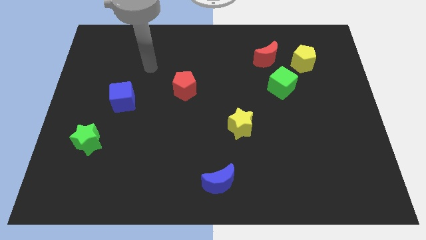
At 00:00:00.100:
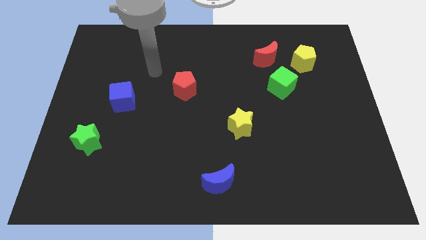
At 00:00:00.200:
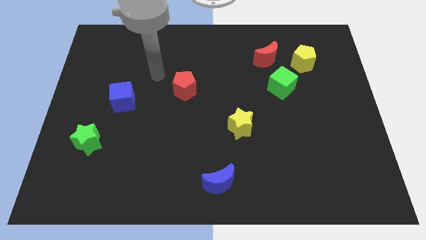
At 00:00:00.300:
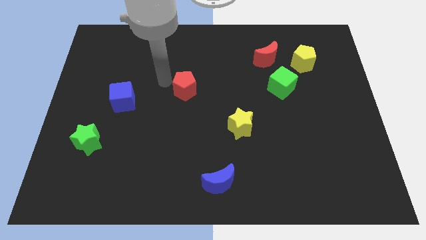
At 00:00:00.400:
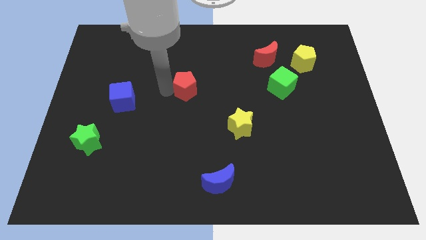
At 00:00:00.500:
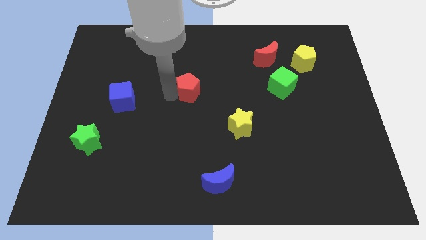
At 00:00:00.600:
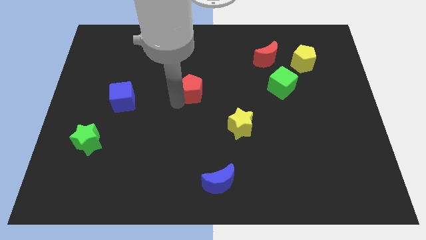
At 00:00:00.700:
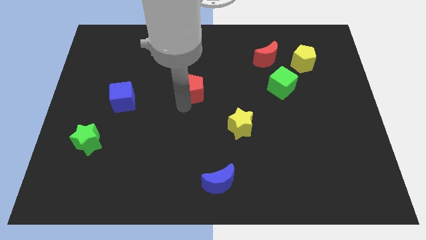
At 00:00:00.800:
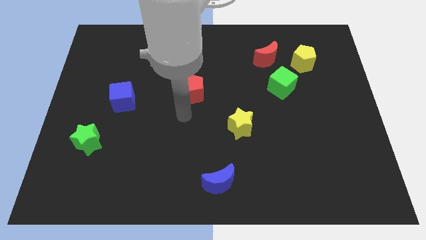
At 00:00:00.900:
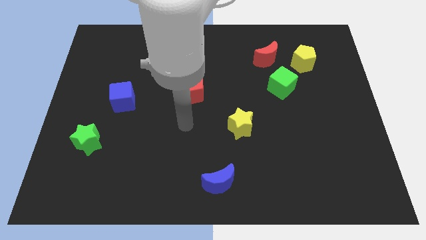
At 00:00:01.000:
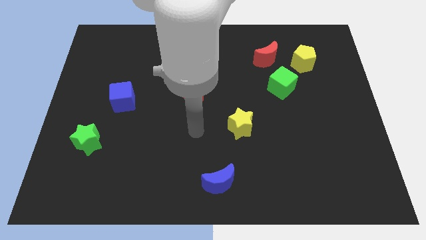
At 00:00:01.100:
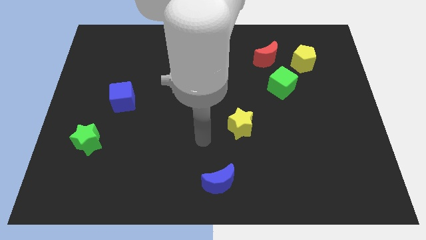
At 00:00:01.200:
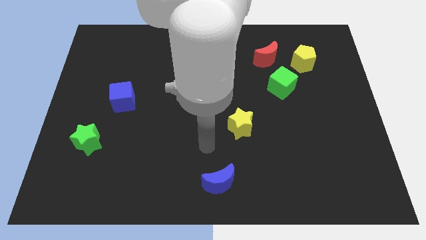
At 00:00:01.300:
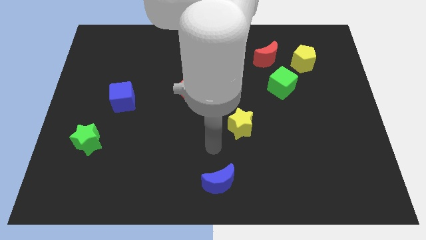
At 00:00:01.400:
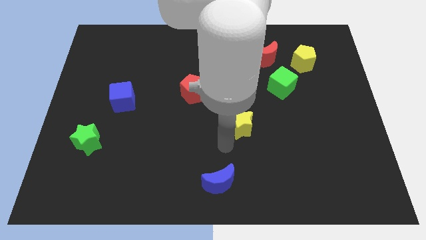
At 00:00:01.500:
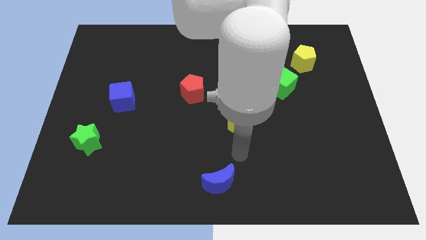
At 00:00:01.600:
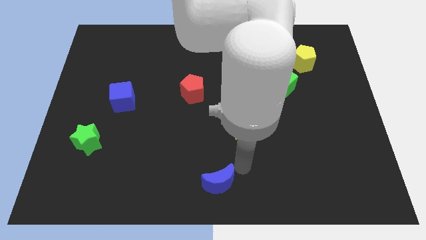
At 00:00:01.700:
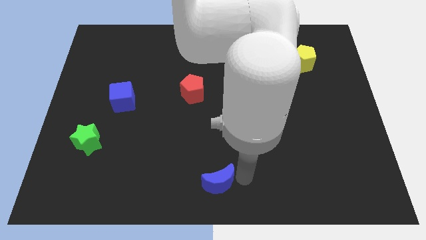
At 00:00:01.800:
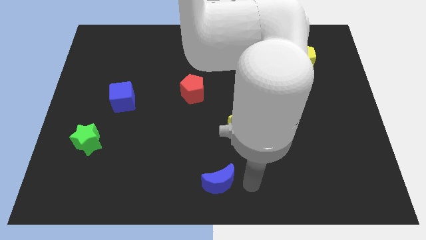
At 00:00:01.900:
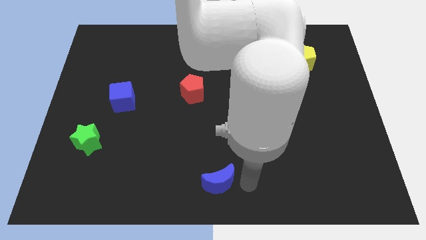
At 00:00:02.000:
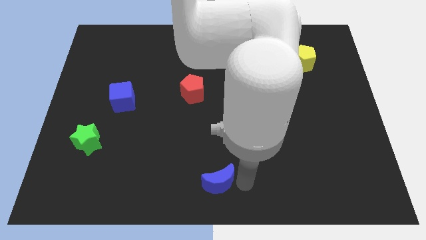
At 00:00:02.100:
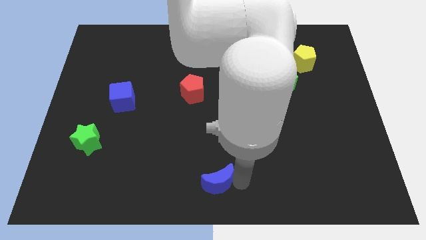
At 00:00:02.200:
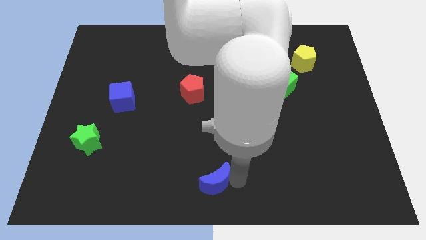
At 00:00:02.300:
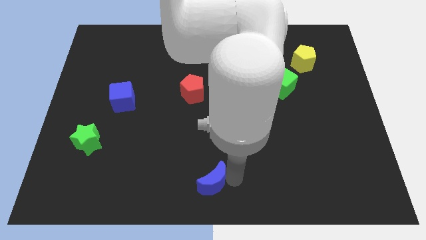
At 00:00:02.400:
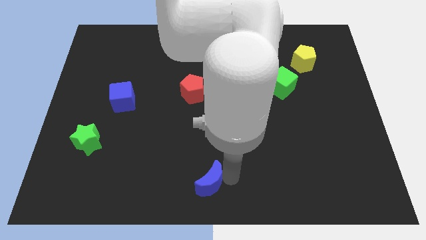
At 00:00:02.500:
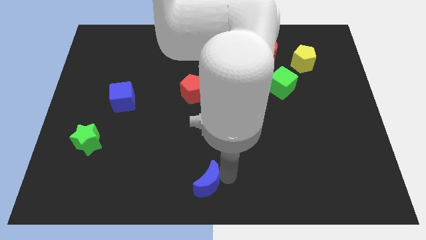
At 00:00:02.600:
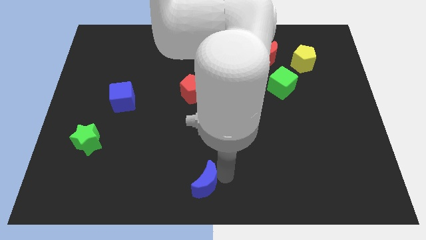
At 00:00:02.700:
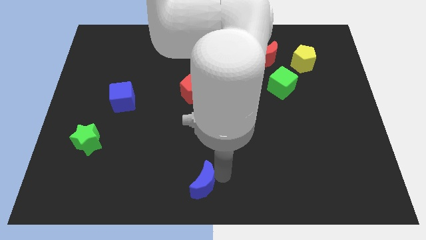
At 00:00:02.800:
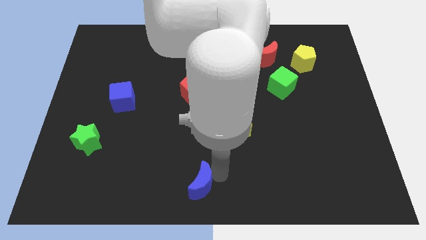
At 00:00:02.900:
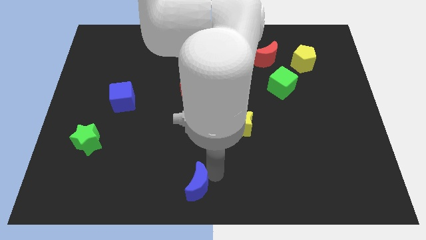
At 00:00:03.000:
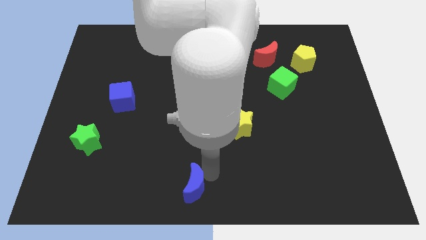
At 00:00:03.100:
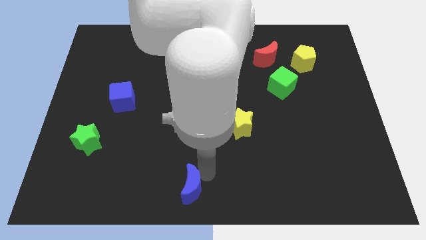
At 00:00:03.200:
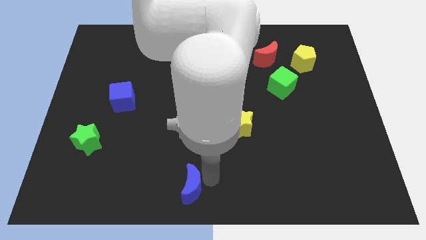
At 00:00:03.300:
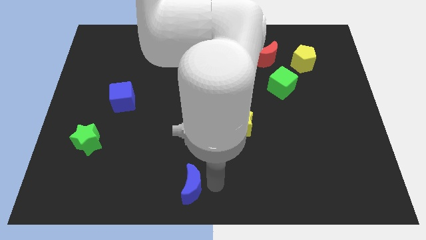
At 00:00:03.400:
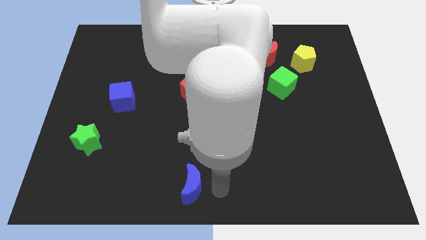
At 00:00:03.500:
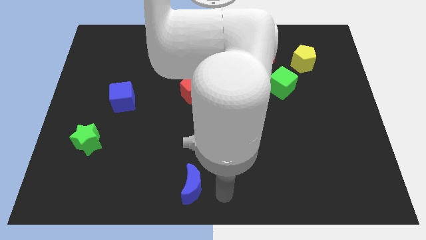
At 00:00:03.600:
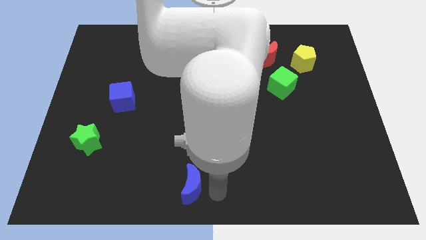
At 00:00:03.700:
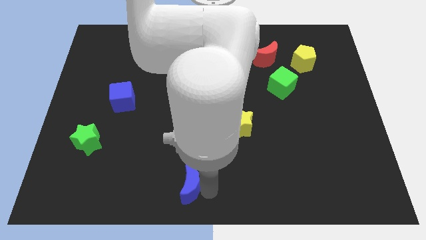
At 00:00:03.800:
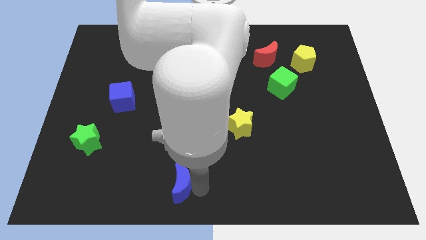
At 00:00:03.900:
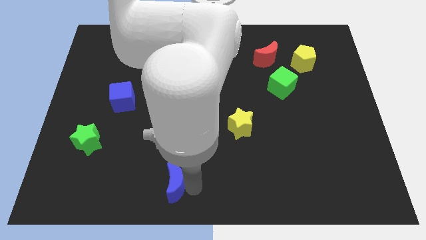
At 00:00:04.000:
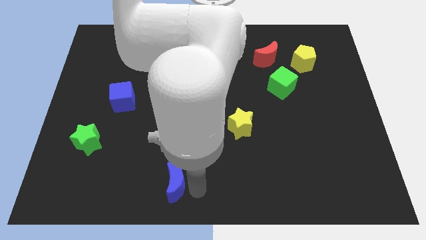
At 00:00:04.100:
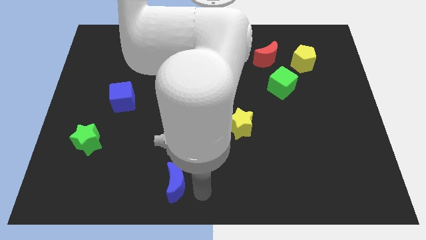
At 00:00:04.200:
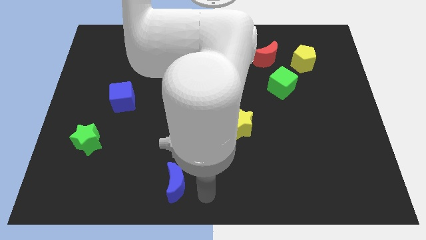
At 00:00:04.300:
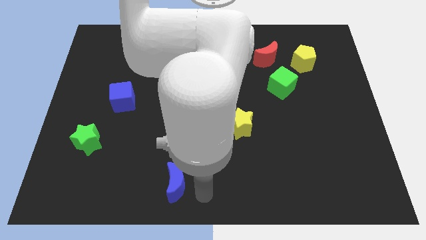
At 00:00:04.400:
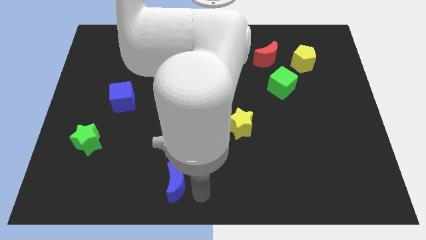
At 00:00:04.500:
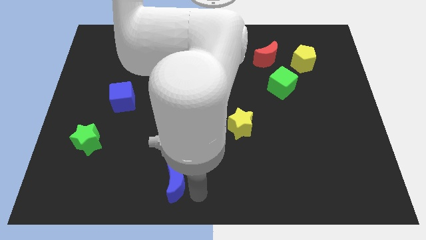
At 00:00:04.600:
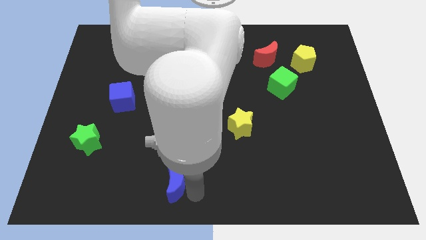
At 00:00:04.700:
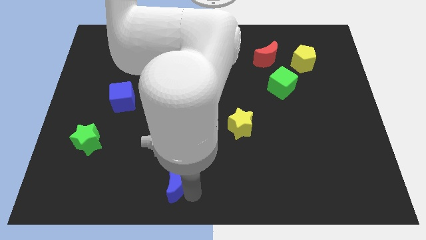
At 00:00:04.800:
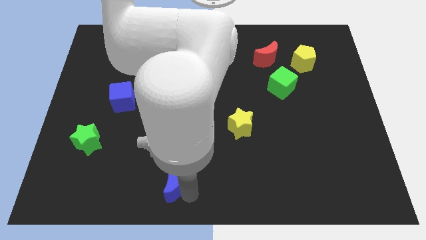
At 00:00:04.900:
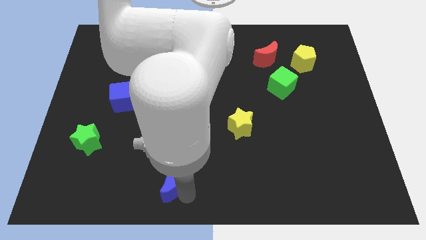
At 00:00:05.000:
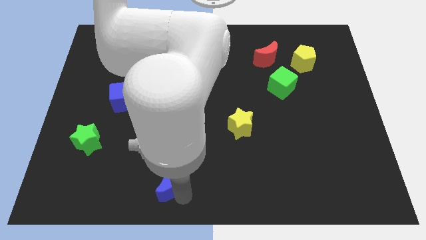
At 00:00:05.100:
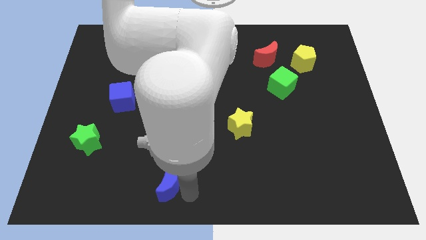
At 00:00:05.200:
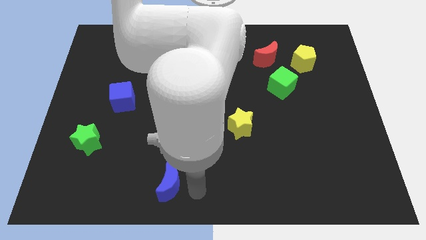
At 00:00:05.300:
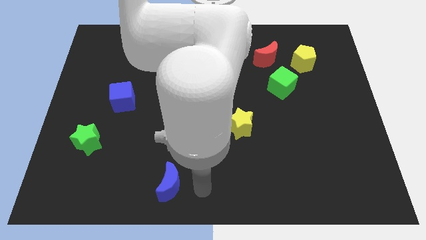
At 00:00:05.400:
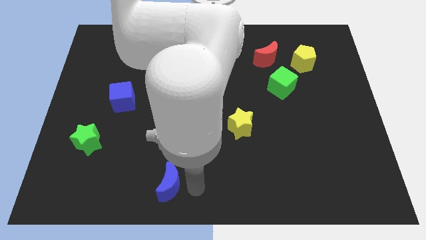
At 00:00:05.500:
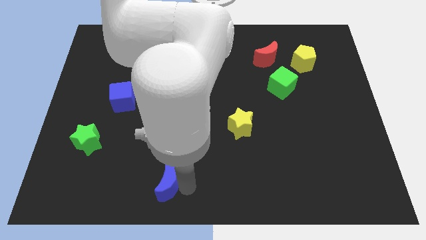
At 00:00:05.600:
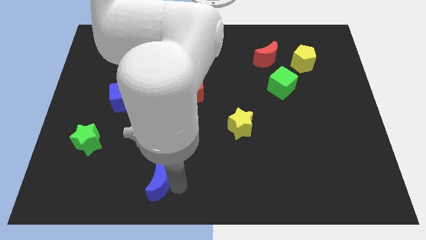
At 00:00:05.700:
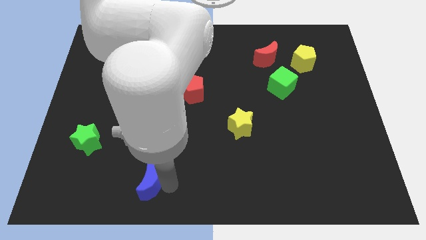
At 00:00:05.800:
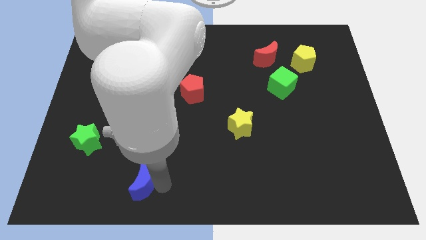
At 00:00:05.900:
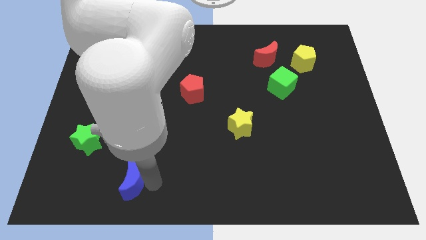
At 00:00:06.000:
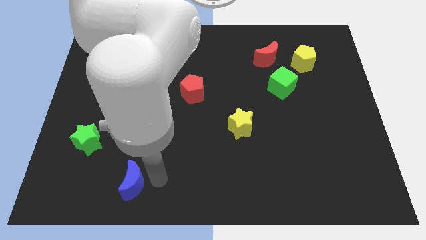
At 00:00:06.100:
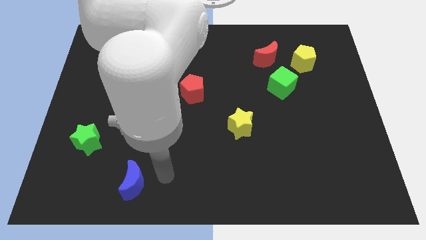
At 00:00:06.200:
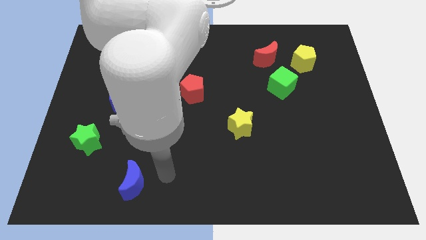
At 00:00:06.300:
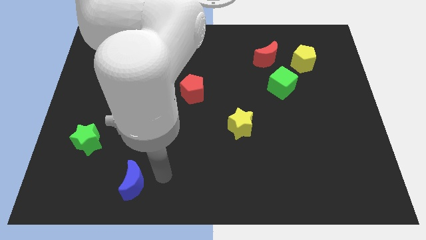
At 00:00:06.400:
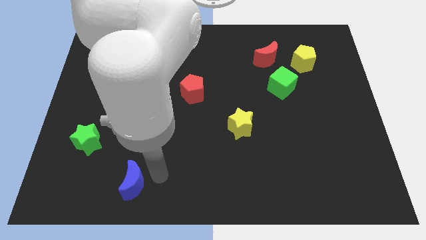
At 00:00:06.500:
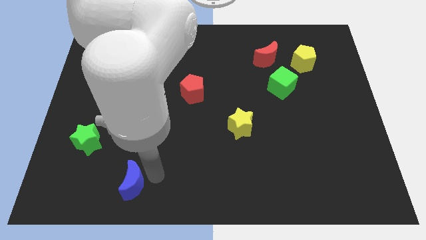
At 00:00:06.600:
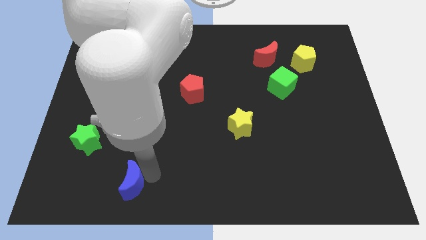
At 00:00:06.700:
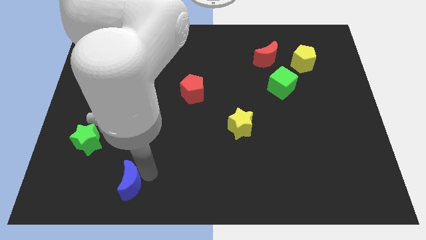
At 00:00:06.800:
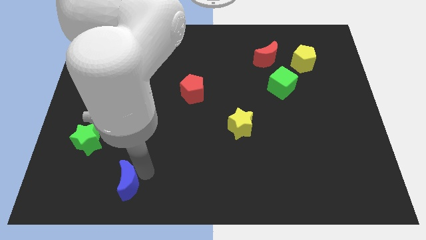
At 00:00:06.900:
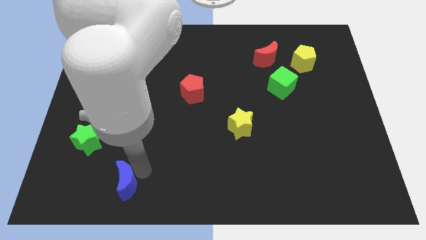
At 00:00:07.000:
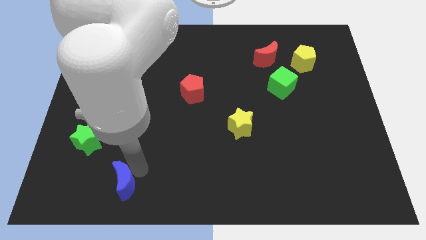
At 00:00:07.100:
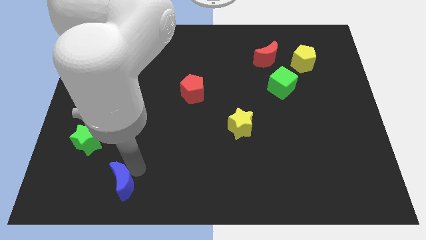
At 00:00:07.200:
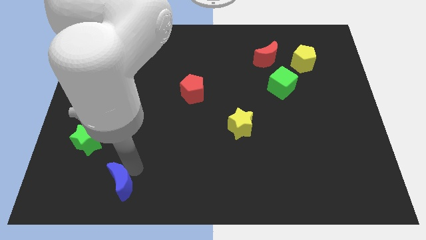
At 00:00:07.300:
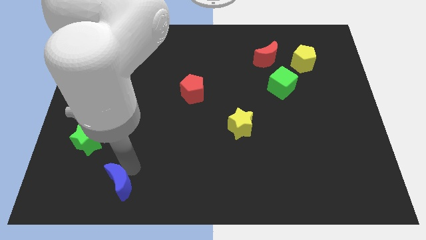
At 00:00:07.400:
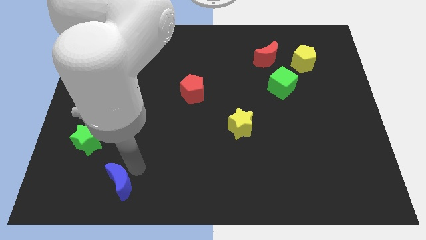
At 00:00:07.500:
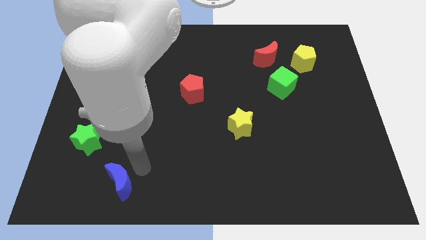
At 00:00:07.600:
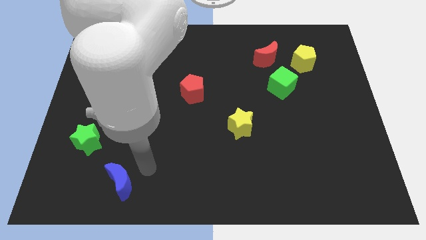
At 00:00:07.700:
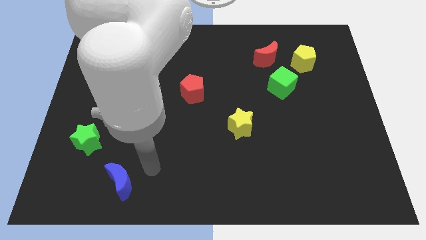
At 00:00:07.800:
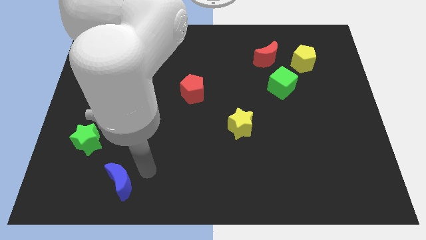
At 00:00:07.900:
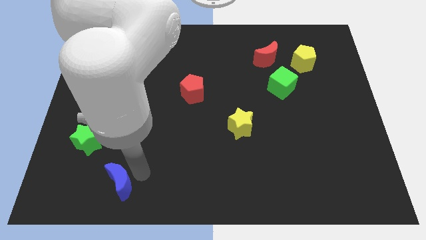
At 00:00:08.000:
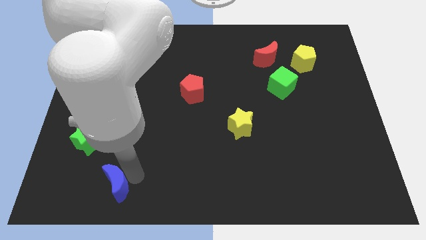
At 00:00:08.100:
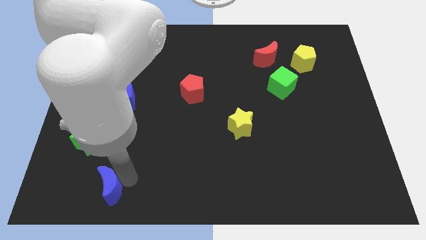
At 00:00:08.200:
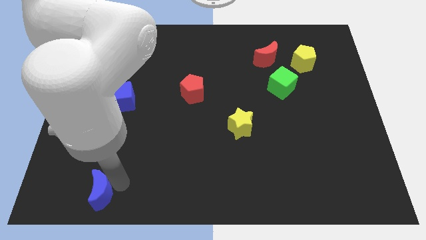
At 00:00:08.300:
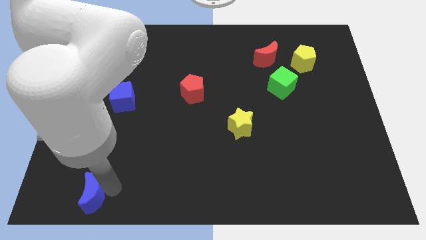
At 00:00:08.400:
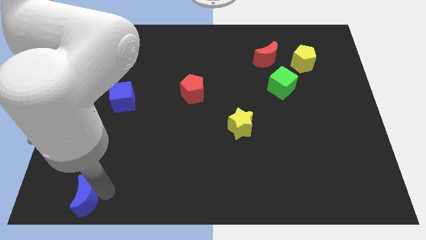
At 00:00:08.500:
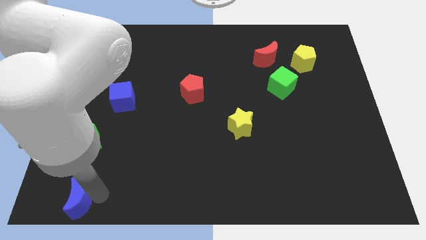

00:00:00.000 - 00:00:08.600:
slide the blue moon to the bottom left corner
